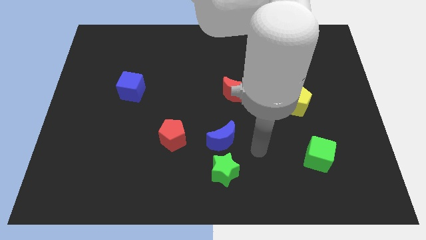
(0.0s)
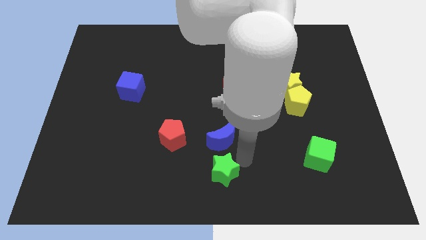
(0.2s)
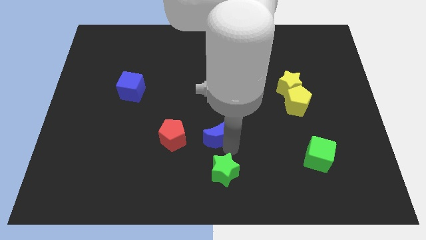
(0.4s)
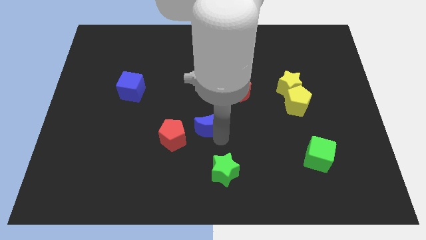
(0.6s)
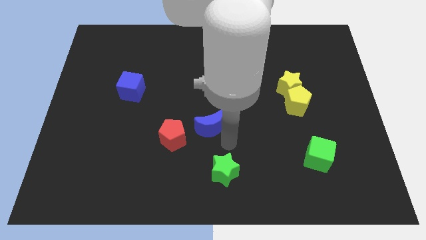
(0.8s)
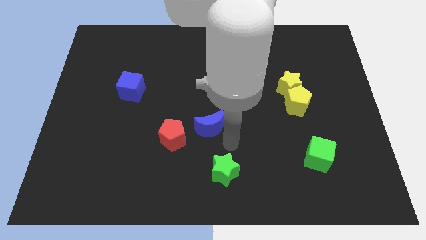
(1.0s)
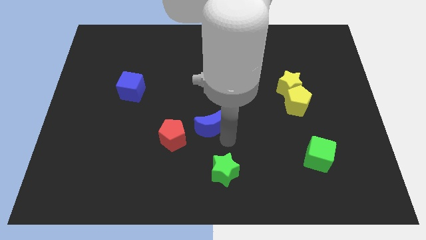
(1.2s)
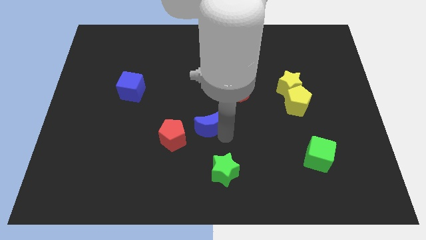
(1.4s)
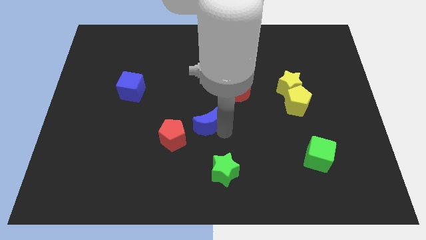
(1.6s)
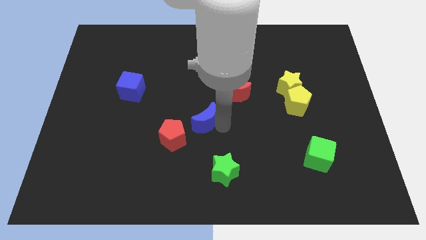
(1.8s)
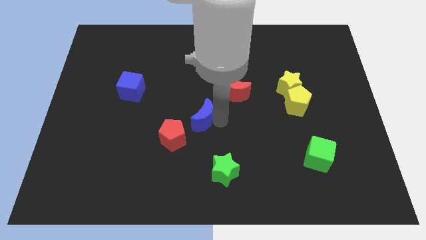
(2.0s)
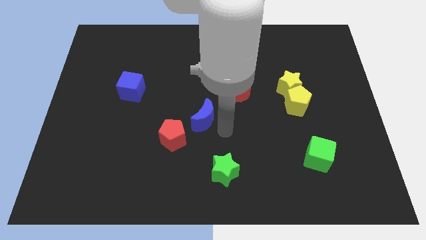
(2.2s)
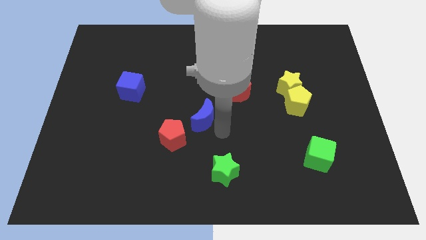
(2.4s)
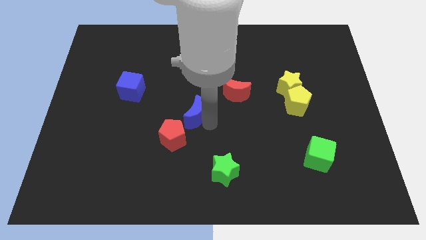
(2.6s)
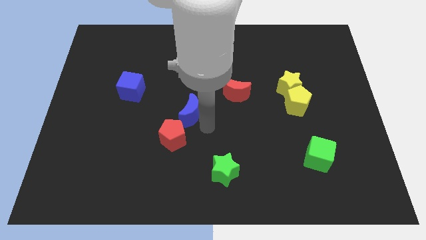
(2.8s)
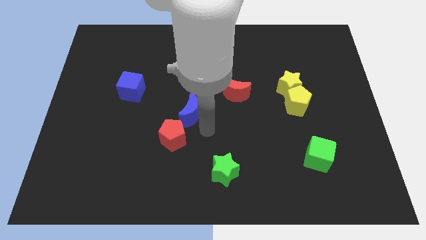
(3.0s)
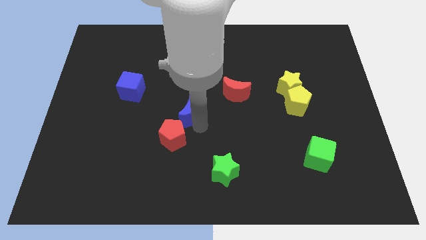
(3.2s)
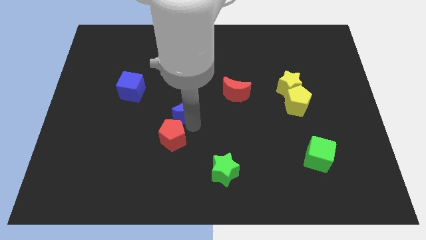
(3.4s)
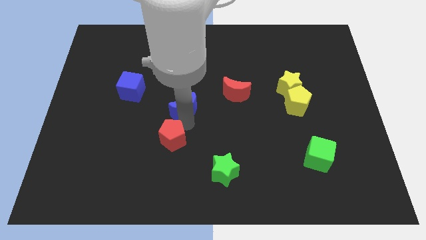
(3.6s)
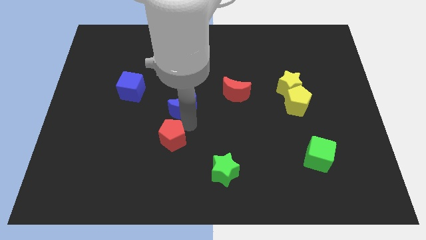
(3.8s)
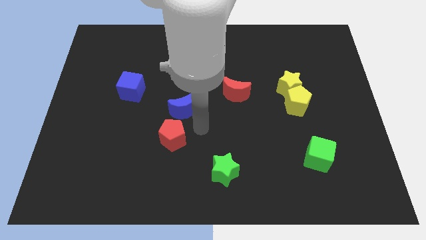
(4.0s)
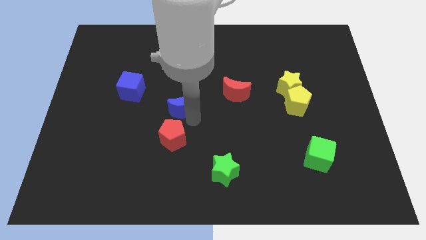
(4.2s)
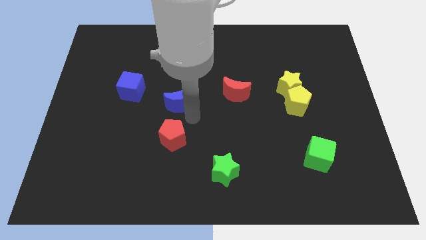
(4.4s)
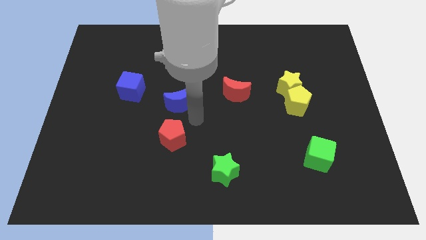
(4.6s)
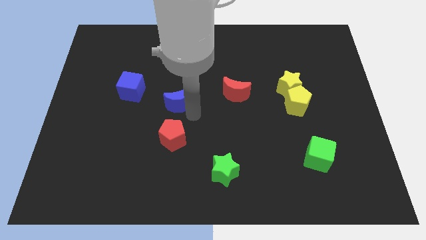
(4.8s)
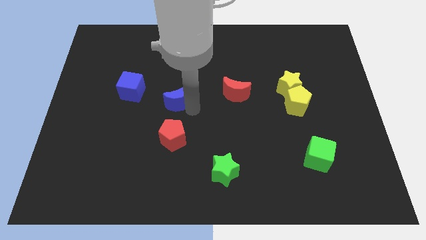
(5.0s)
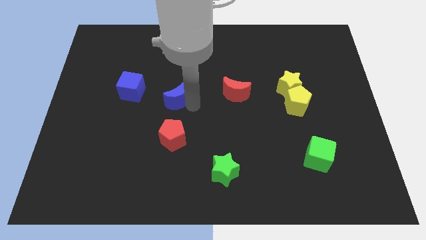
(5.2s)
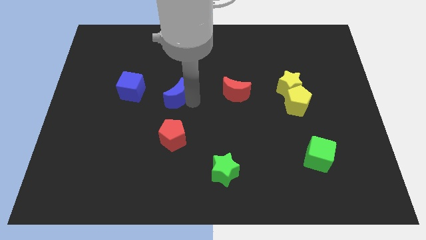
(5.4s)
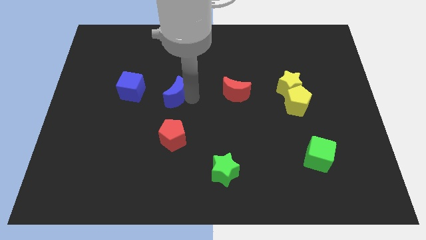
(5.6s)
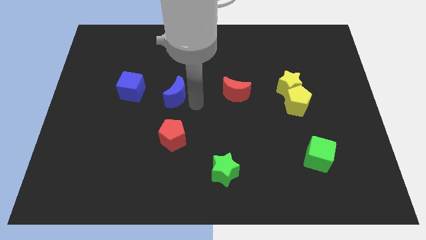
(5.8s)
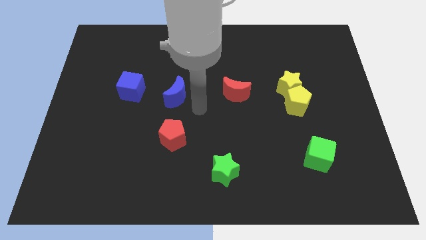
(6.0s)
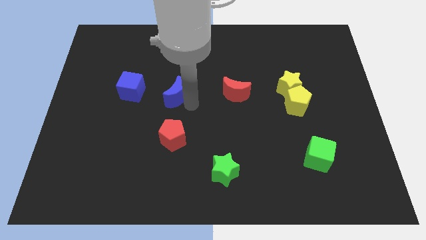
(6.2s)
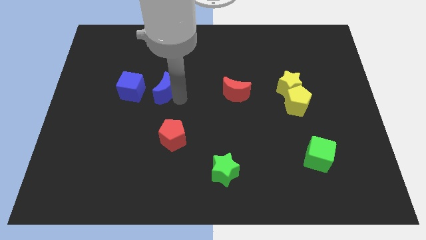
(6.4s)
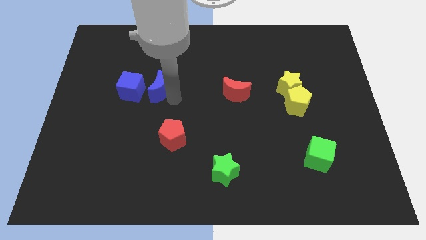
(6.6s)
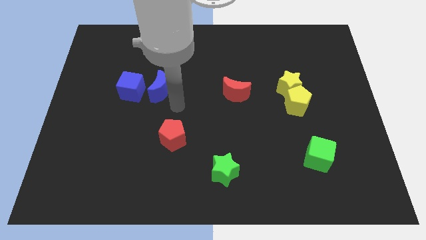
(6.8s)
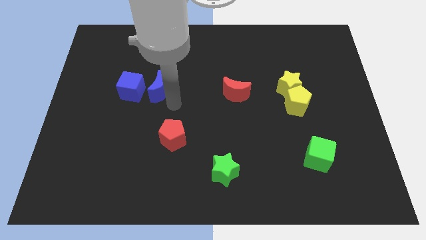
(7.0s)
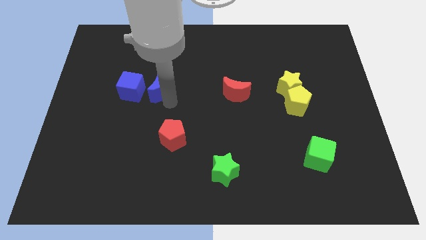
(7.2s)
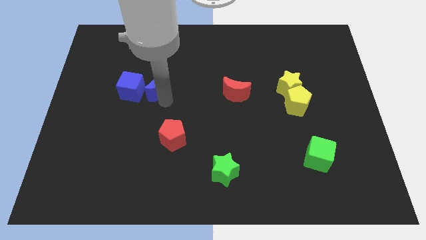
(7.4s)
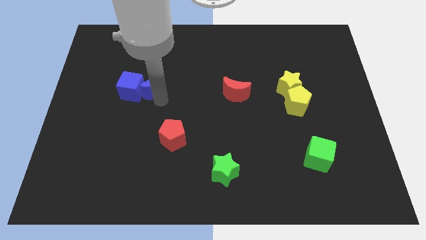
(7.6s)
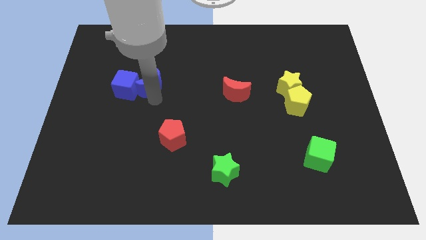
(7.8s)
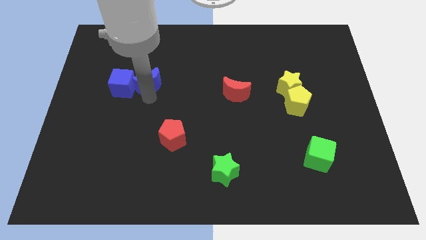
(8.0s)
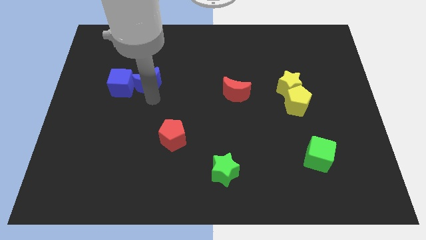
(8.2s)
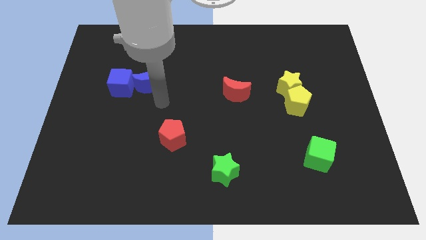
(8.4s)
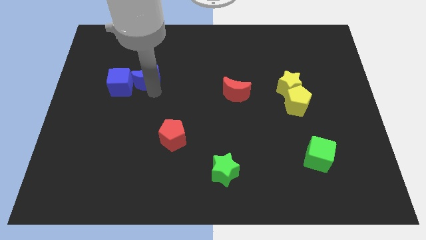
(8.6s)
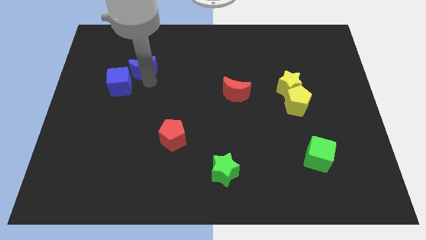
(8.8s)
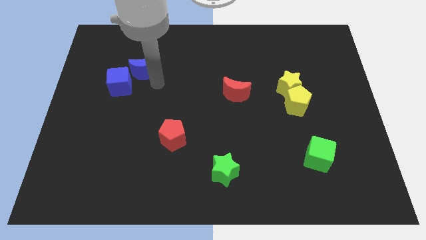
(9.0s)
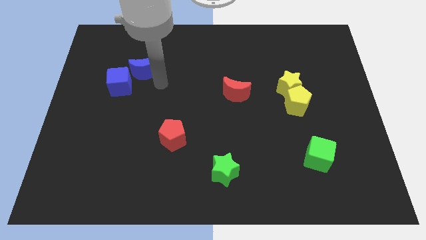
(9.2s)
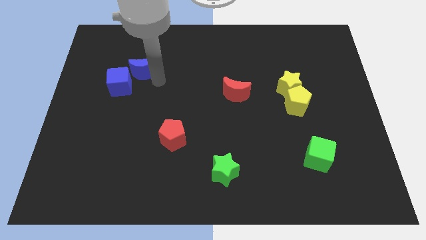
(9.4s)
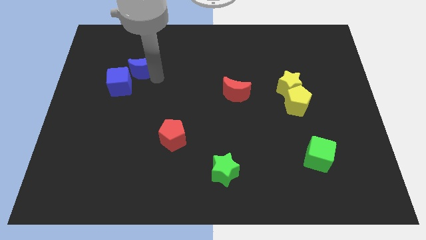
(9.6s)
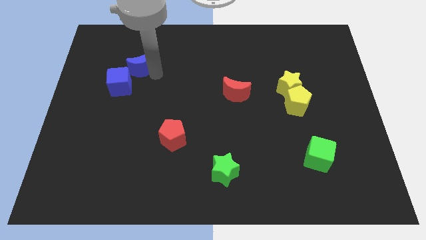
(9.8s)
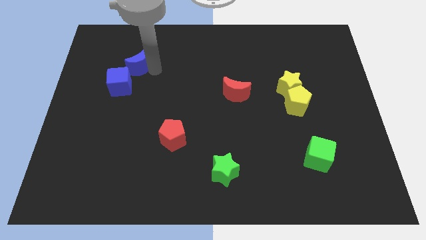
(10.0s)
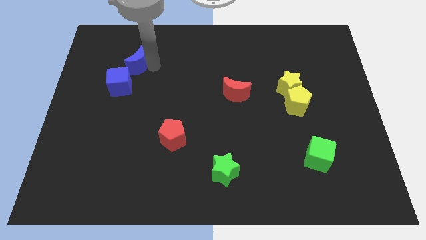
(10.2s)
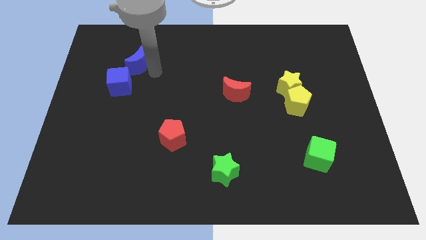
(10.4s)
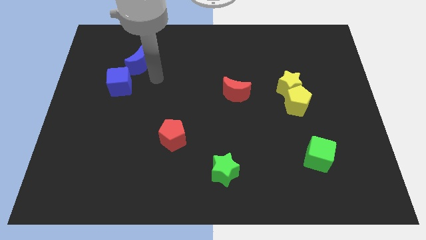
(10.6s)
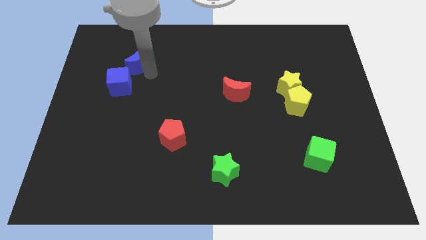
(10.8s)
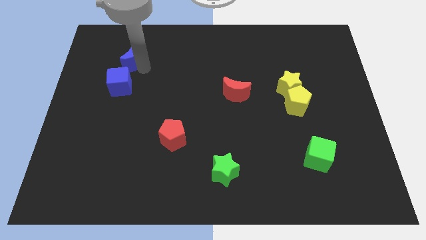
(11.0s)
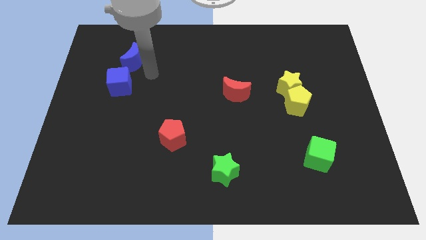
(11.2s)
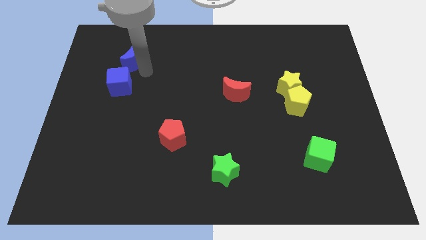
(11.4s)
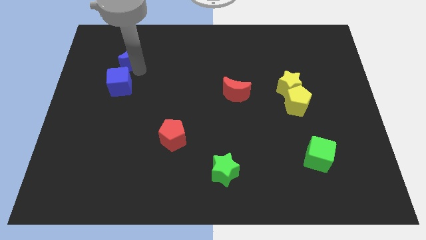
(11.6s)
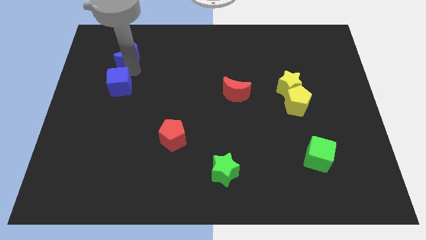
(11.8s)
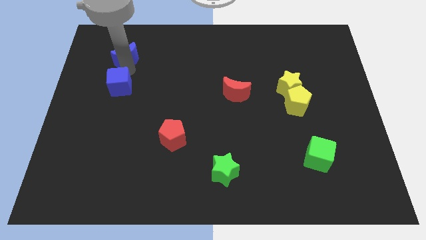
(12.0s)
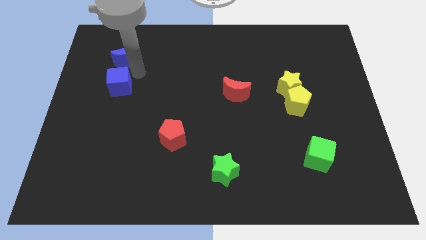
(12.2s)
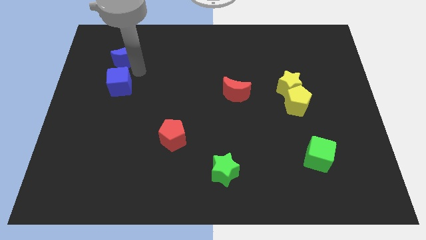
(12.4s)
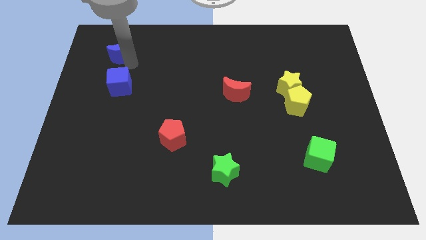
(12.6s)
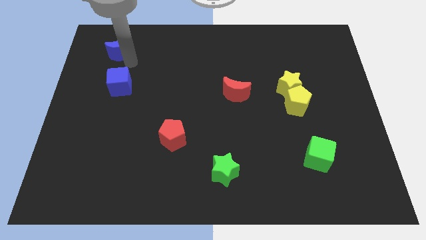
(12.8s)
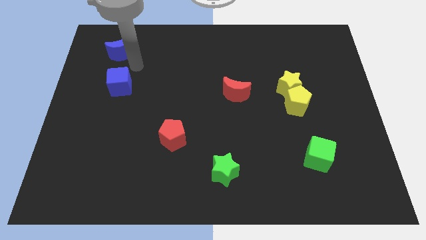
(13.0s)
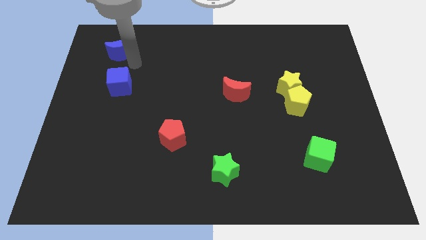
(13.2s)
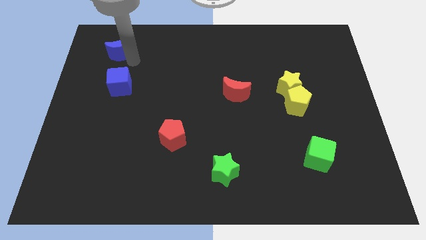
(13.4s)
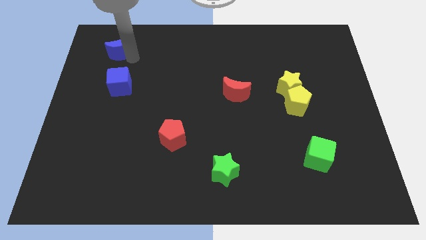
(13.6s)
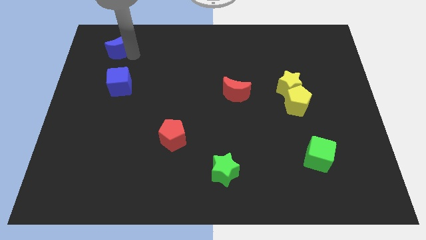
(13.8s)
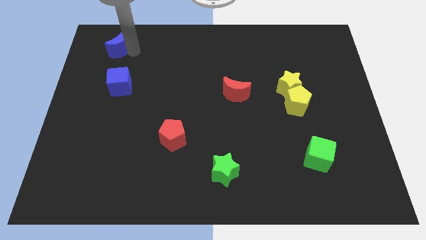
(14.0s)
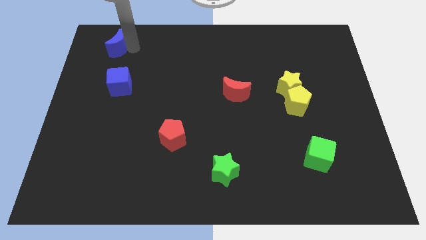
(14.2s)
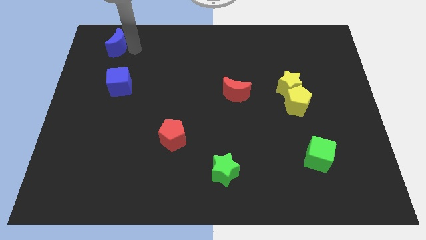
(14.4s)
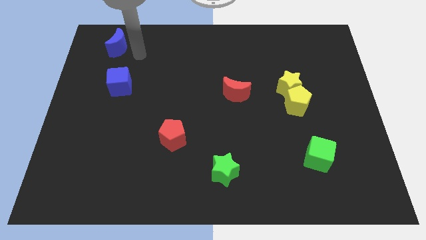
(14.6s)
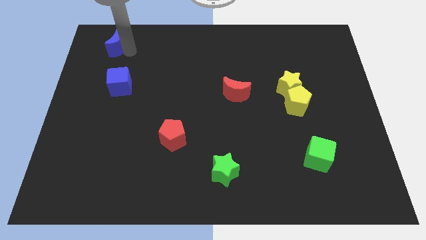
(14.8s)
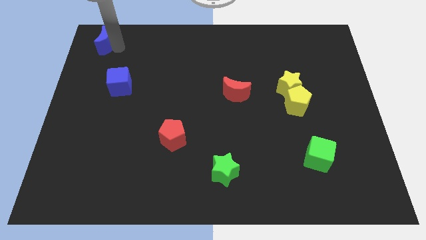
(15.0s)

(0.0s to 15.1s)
move the blue moon to the upper left corner
